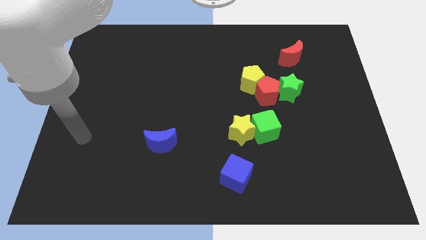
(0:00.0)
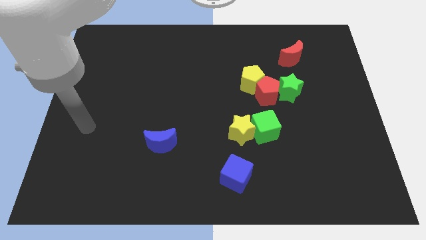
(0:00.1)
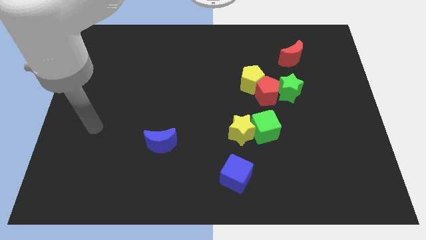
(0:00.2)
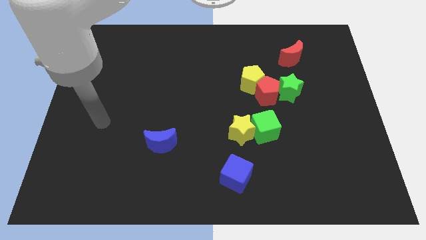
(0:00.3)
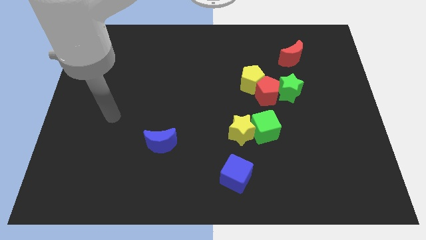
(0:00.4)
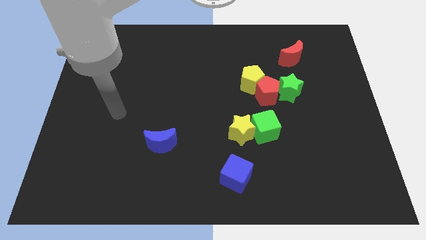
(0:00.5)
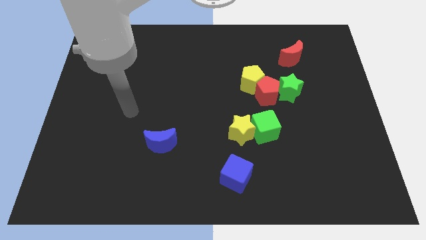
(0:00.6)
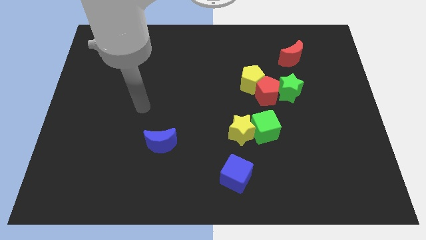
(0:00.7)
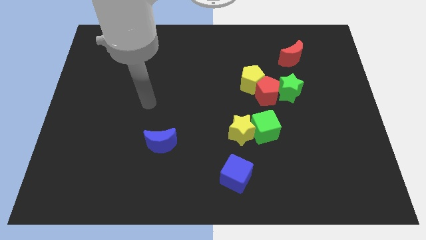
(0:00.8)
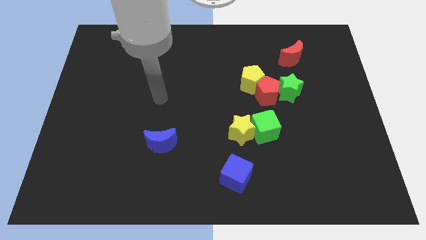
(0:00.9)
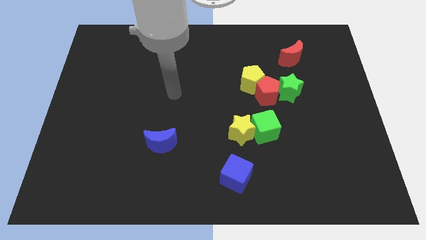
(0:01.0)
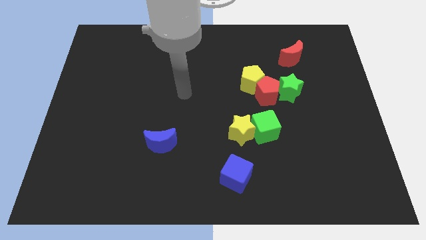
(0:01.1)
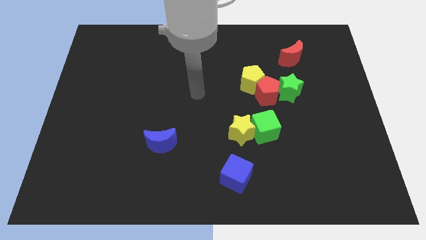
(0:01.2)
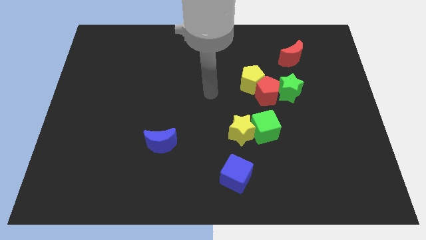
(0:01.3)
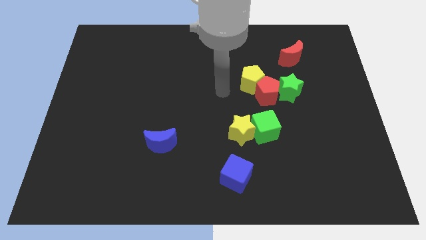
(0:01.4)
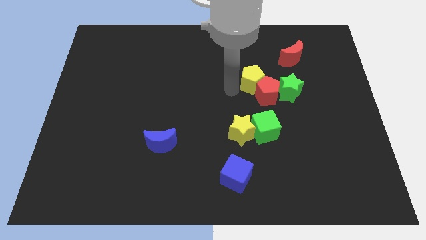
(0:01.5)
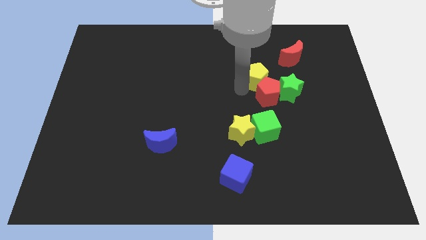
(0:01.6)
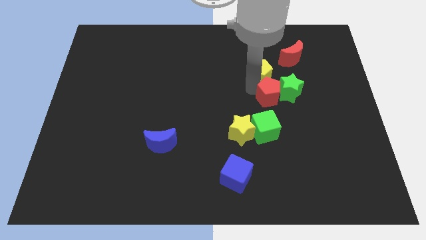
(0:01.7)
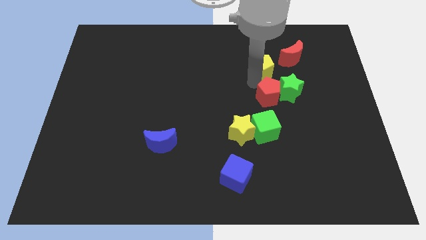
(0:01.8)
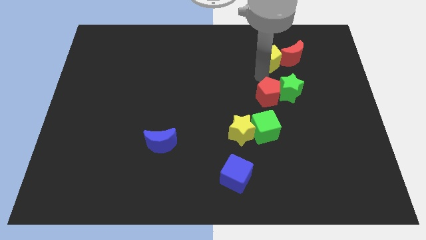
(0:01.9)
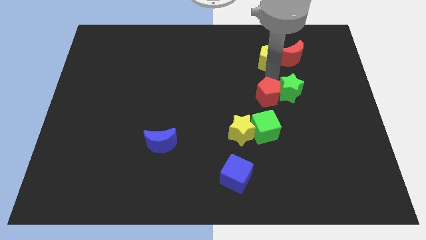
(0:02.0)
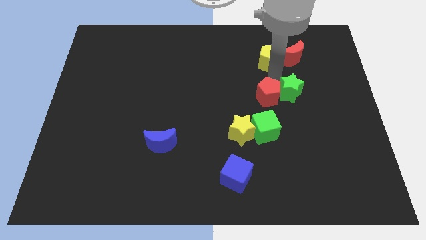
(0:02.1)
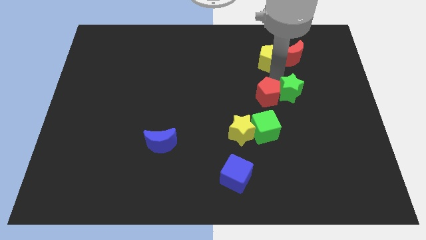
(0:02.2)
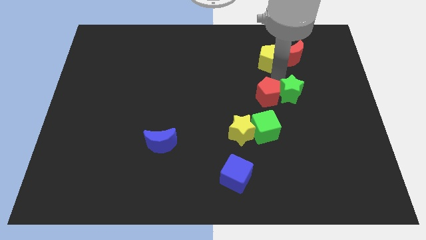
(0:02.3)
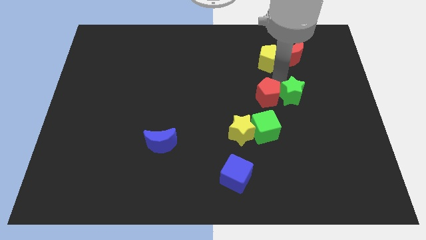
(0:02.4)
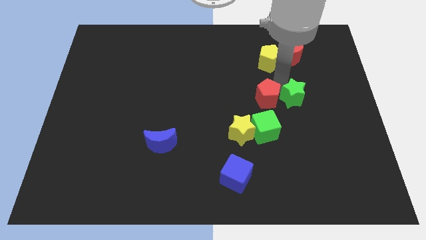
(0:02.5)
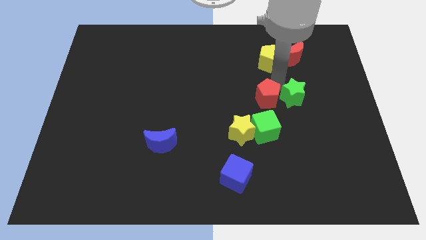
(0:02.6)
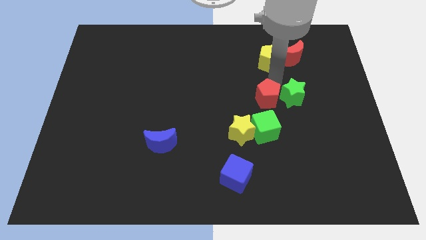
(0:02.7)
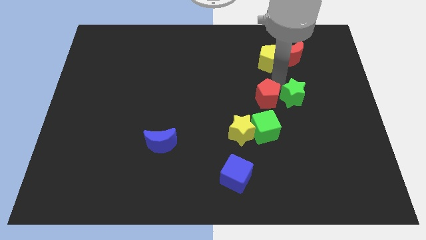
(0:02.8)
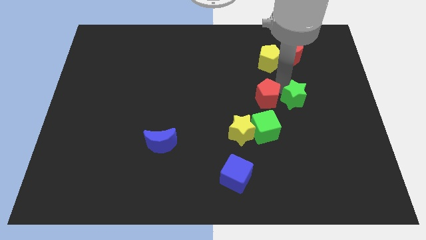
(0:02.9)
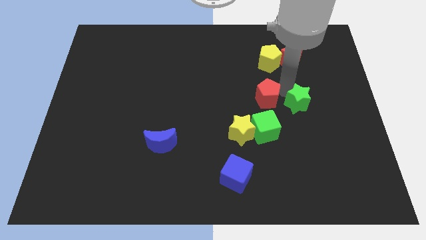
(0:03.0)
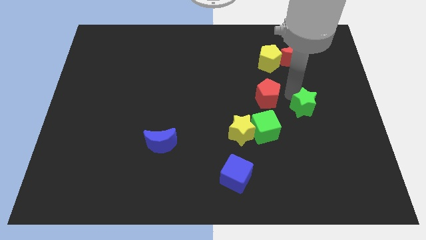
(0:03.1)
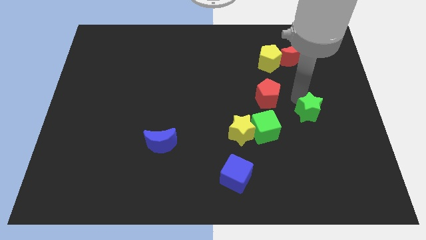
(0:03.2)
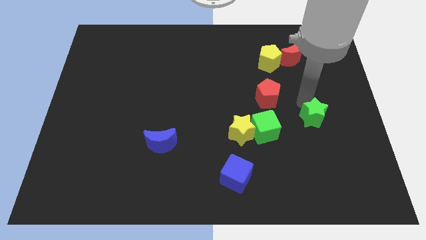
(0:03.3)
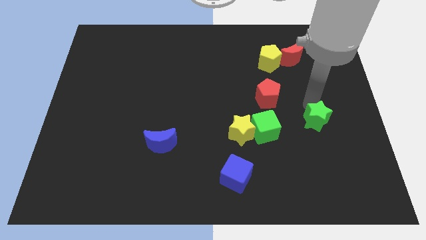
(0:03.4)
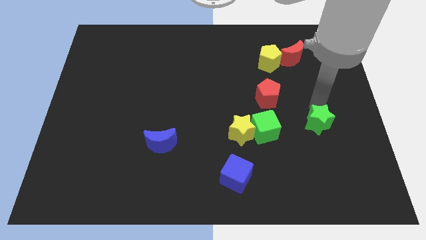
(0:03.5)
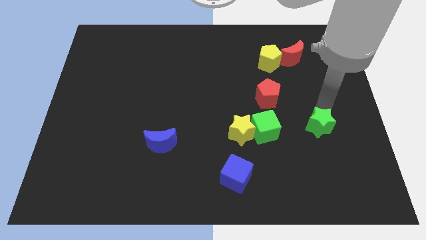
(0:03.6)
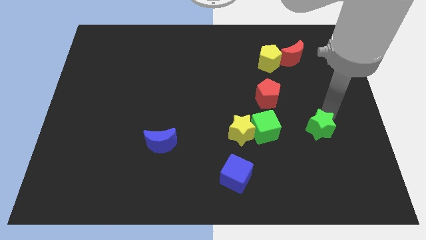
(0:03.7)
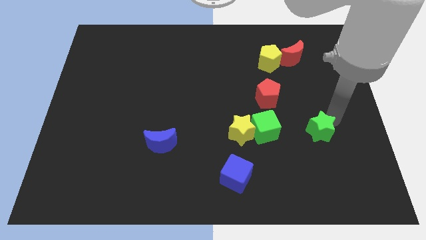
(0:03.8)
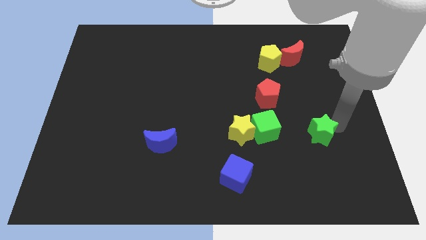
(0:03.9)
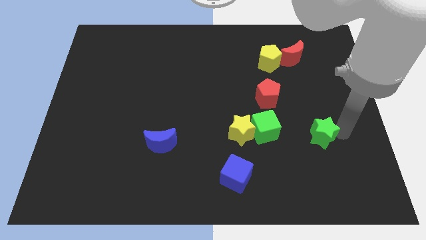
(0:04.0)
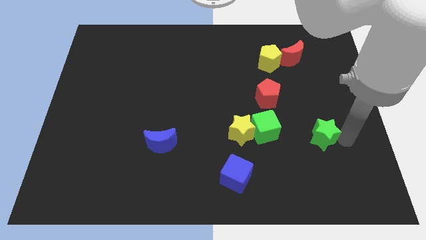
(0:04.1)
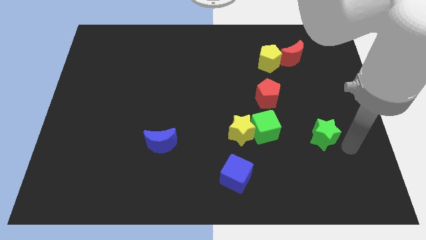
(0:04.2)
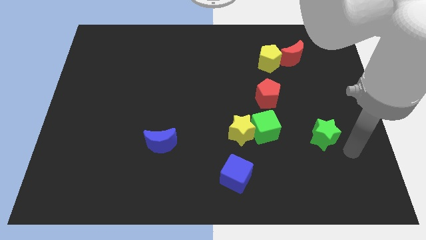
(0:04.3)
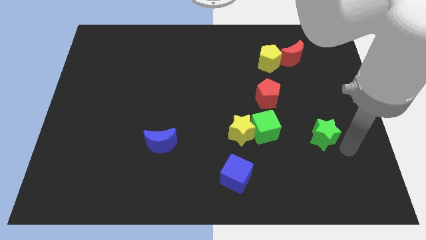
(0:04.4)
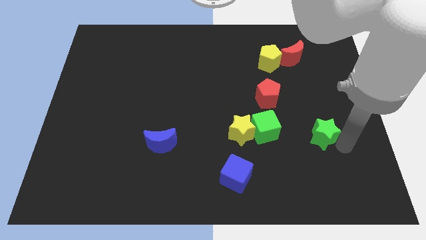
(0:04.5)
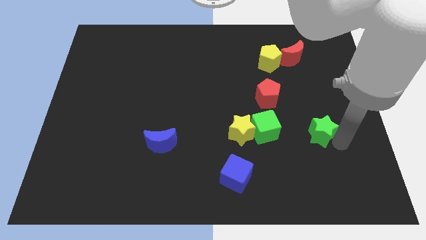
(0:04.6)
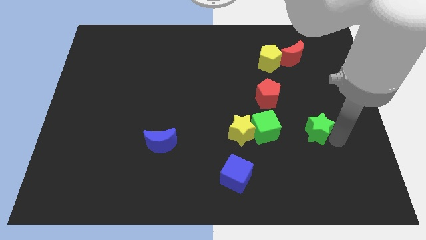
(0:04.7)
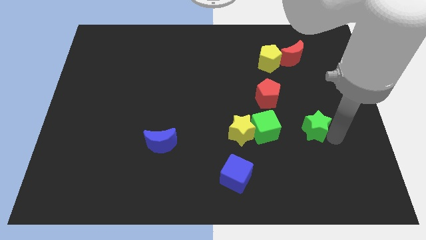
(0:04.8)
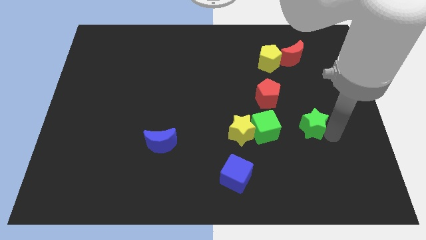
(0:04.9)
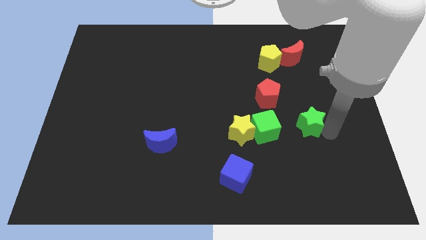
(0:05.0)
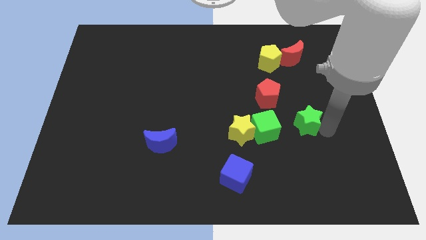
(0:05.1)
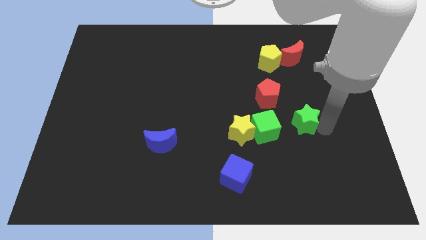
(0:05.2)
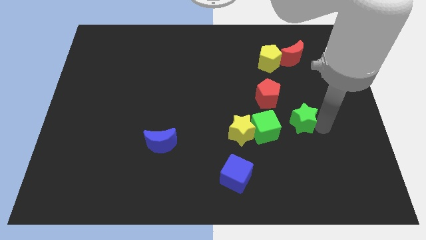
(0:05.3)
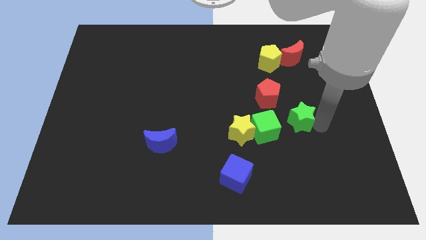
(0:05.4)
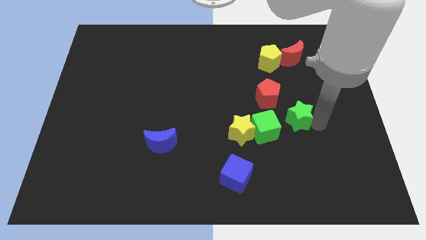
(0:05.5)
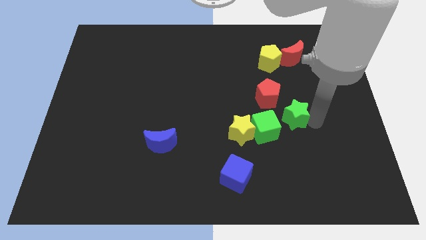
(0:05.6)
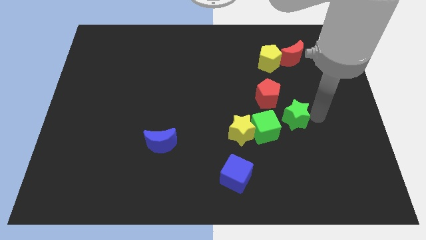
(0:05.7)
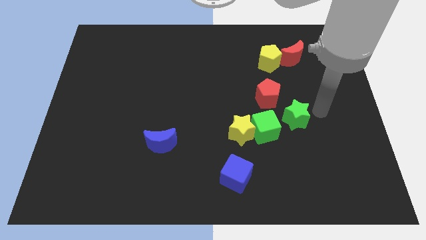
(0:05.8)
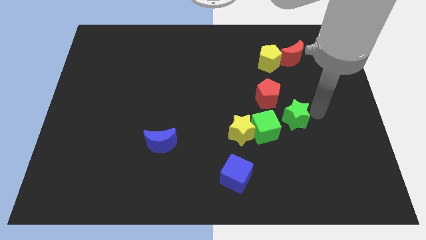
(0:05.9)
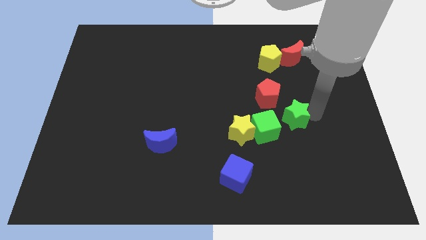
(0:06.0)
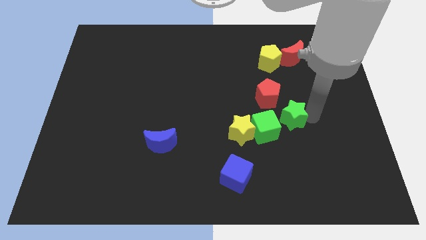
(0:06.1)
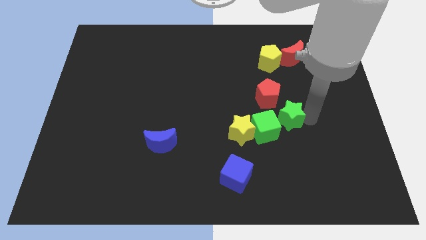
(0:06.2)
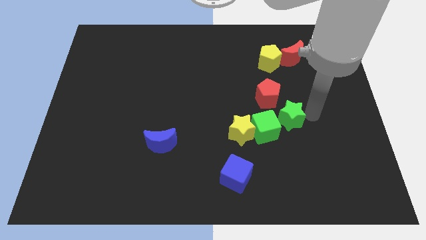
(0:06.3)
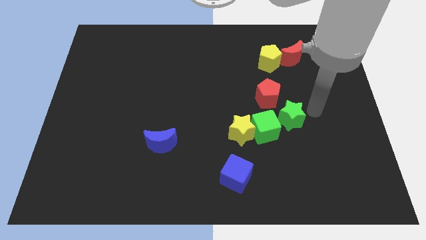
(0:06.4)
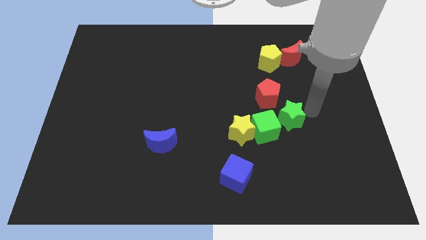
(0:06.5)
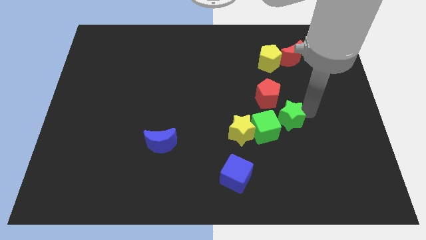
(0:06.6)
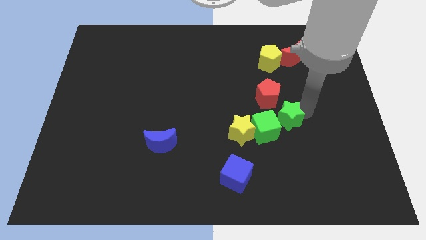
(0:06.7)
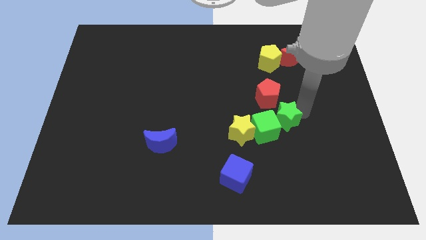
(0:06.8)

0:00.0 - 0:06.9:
put the green star to the green cube

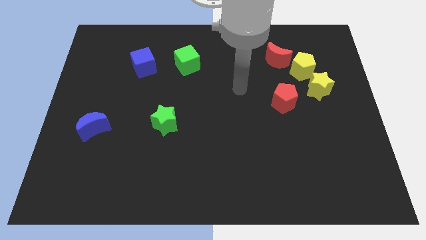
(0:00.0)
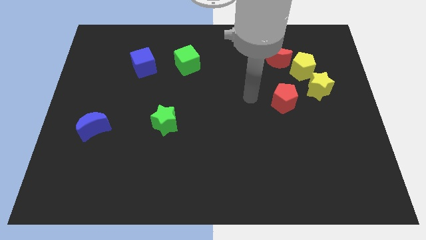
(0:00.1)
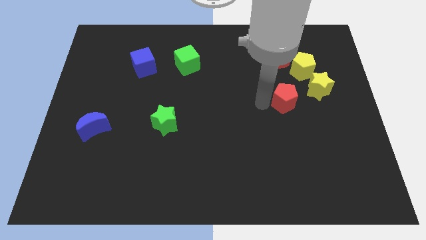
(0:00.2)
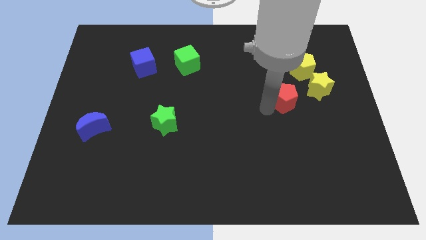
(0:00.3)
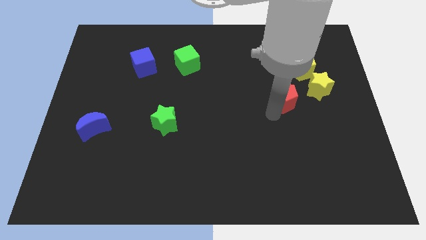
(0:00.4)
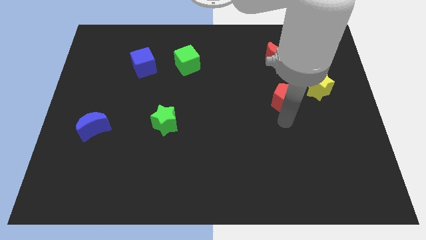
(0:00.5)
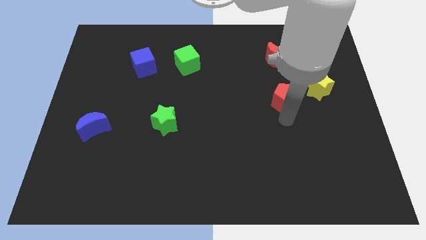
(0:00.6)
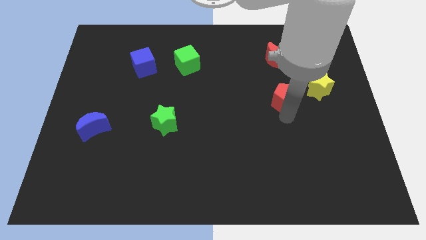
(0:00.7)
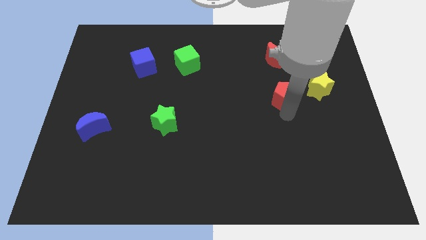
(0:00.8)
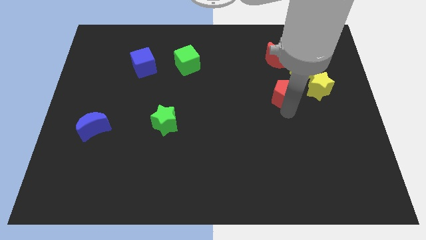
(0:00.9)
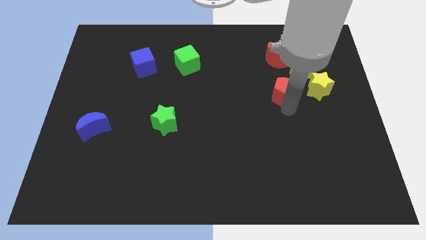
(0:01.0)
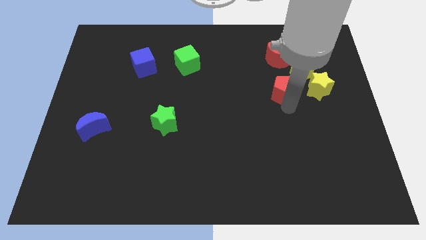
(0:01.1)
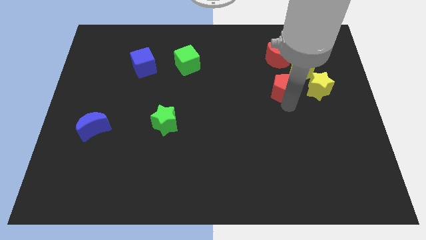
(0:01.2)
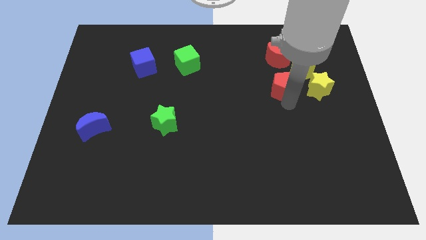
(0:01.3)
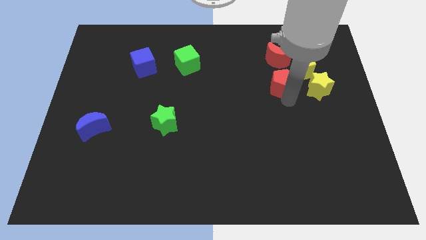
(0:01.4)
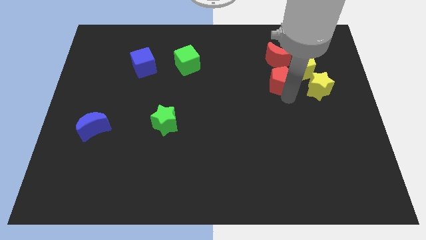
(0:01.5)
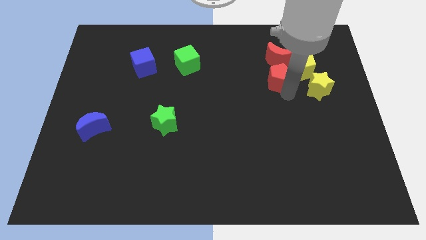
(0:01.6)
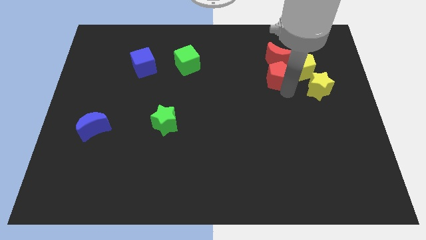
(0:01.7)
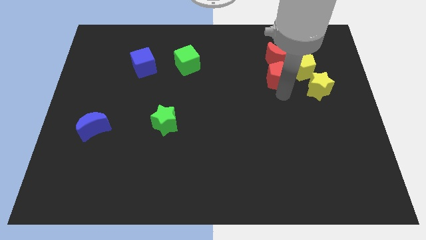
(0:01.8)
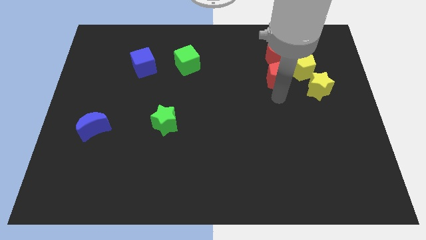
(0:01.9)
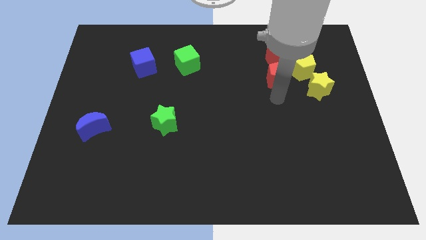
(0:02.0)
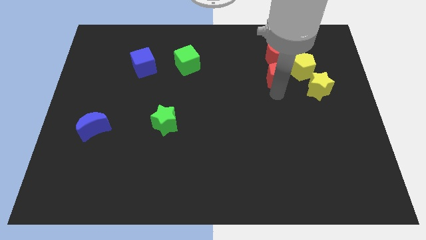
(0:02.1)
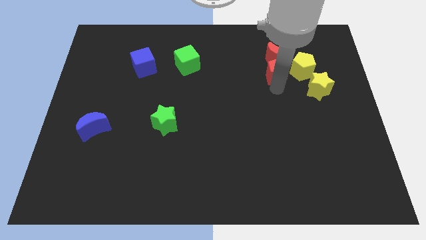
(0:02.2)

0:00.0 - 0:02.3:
move the red pentagon to the red moon
